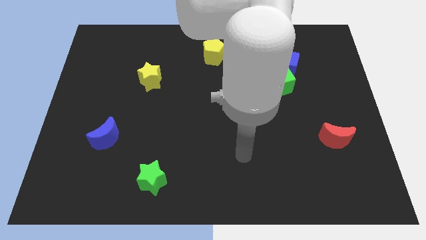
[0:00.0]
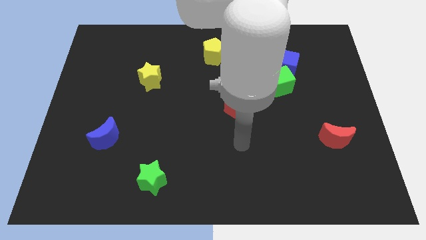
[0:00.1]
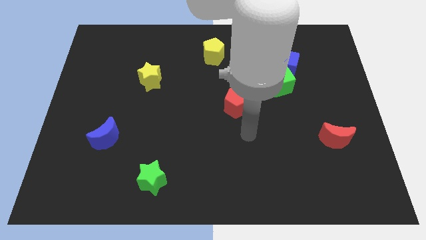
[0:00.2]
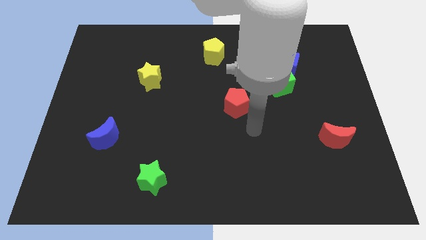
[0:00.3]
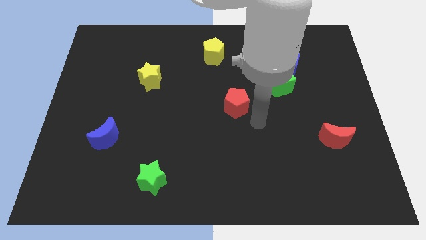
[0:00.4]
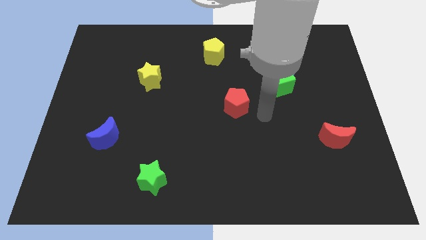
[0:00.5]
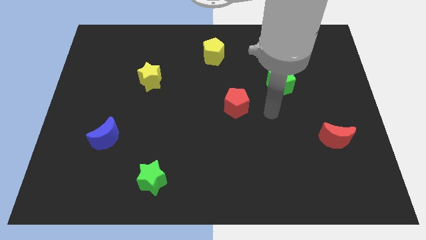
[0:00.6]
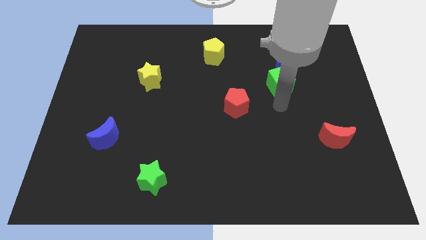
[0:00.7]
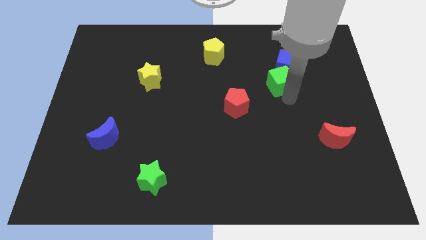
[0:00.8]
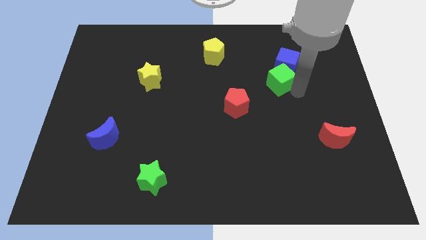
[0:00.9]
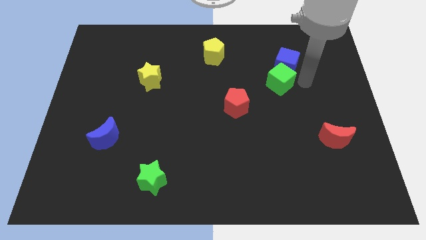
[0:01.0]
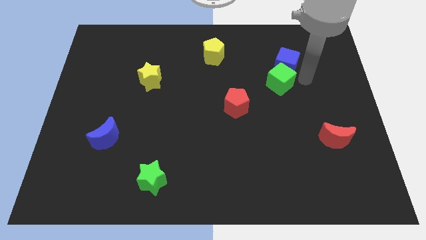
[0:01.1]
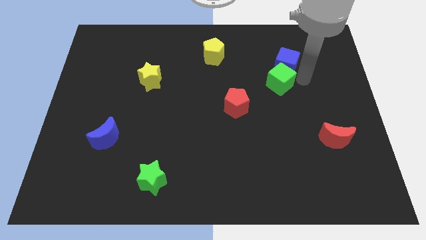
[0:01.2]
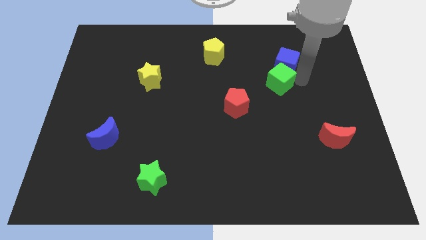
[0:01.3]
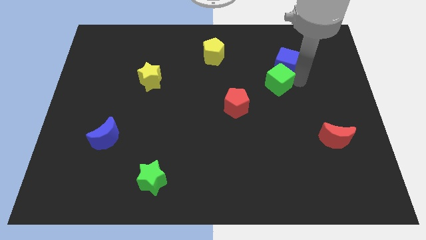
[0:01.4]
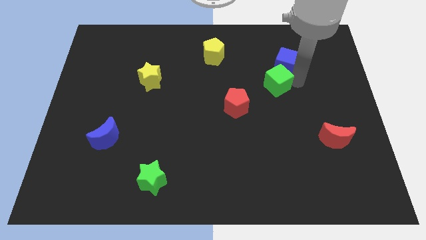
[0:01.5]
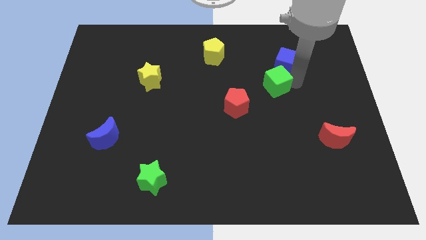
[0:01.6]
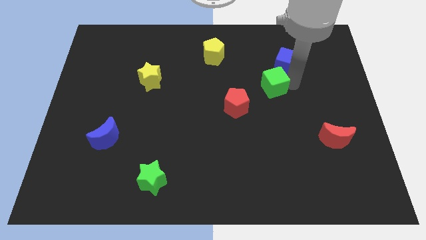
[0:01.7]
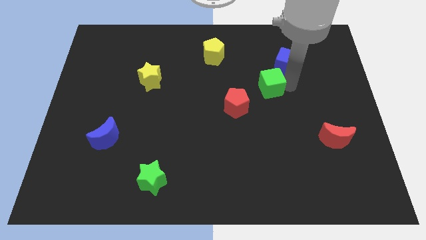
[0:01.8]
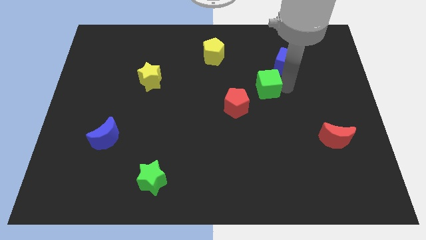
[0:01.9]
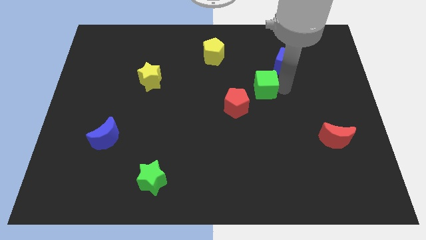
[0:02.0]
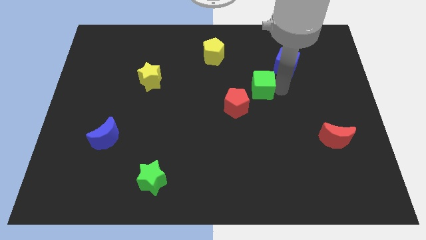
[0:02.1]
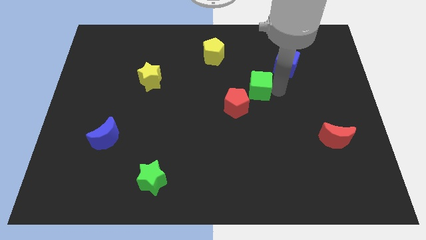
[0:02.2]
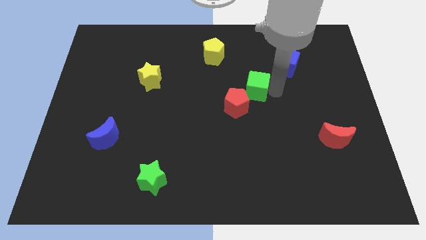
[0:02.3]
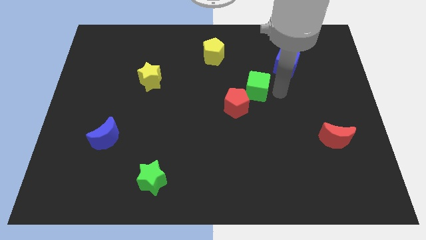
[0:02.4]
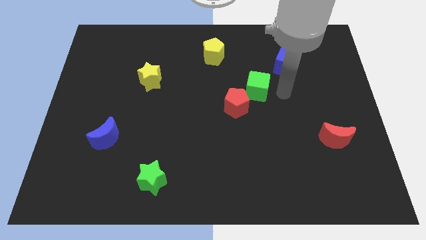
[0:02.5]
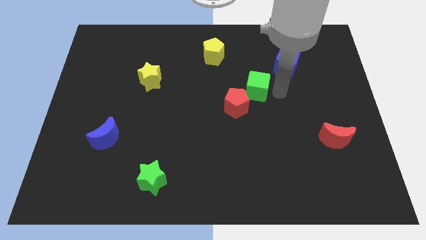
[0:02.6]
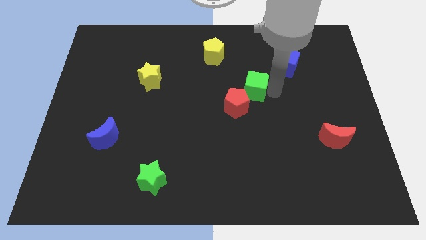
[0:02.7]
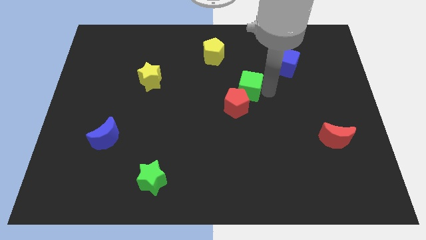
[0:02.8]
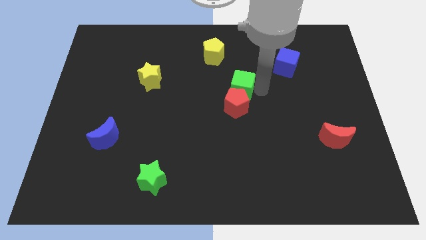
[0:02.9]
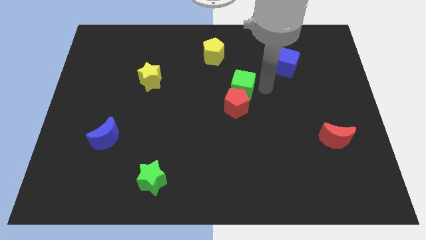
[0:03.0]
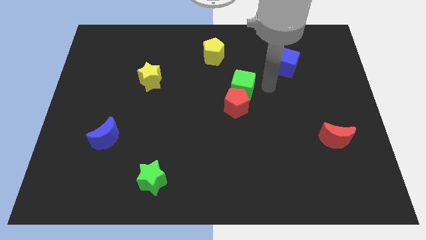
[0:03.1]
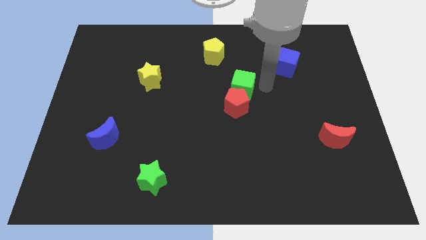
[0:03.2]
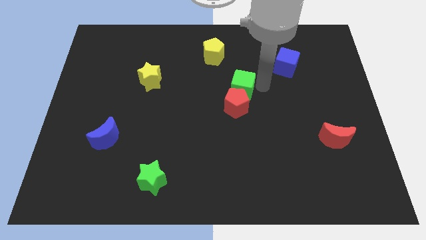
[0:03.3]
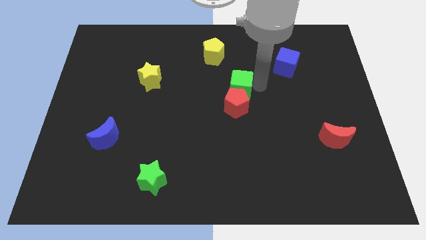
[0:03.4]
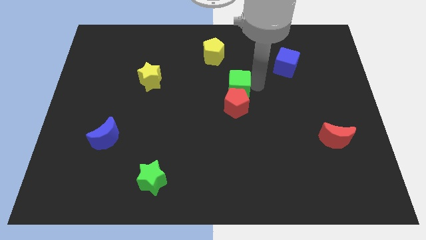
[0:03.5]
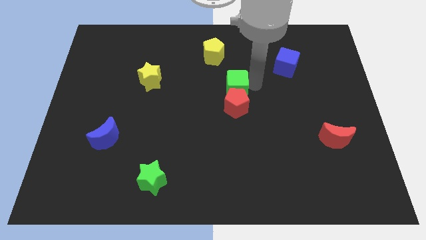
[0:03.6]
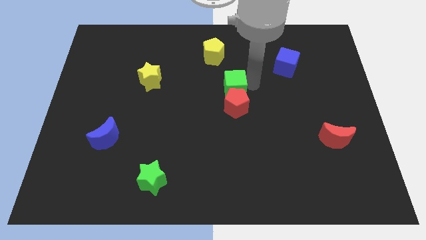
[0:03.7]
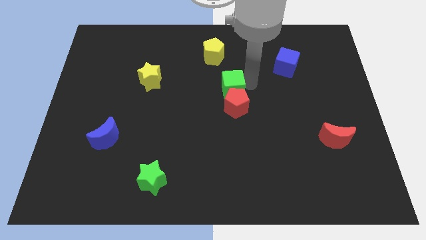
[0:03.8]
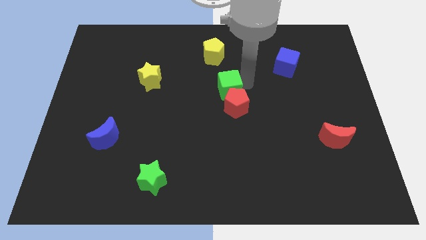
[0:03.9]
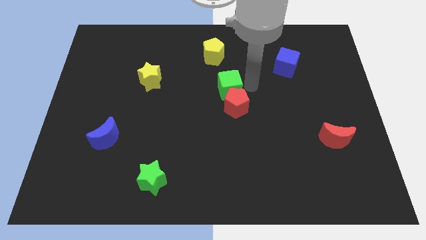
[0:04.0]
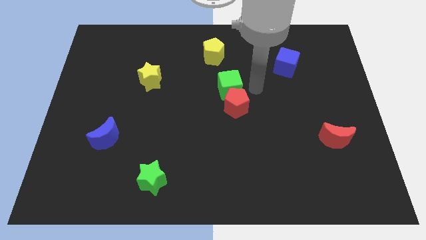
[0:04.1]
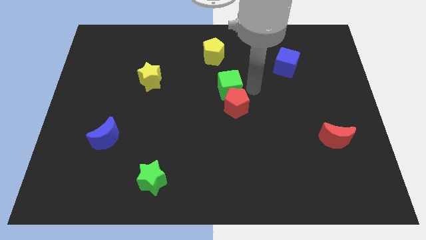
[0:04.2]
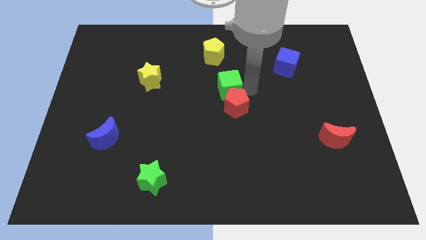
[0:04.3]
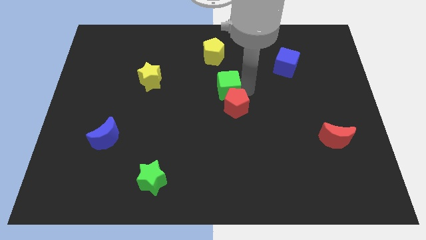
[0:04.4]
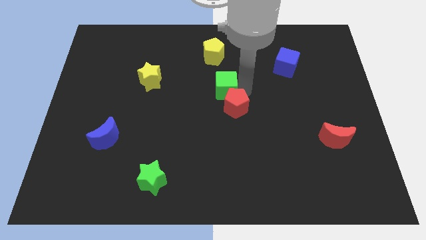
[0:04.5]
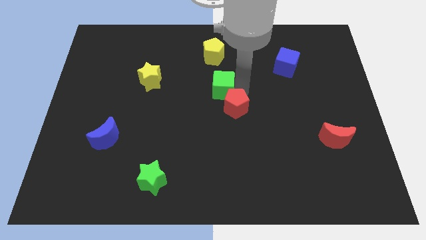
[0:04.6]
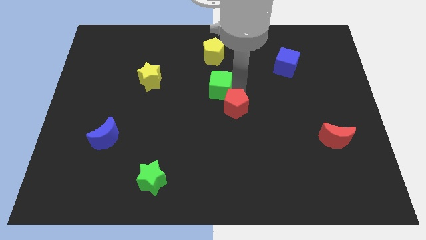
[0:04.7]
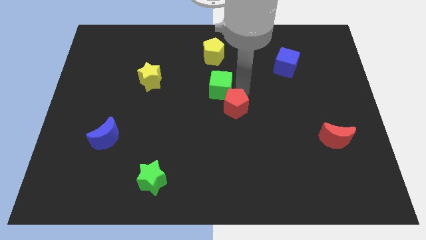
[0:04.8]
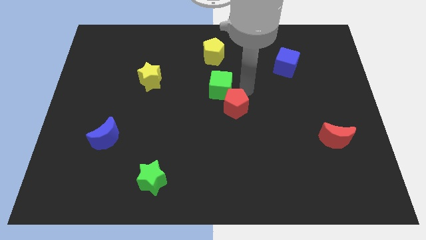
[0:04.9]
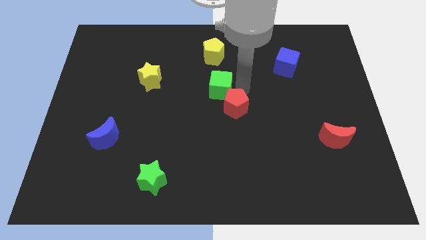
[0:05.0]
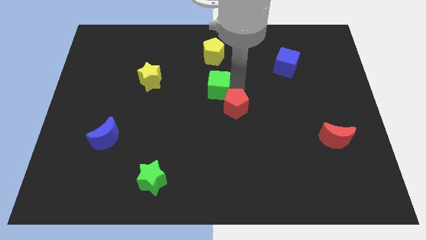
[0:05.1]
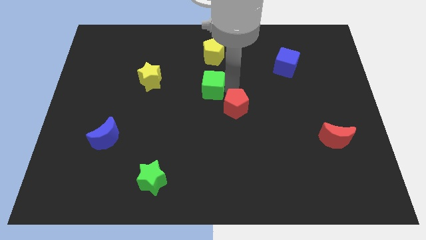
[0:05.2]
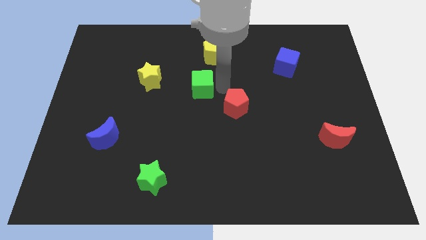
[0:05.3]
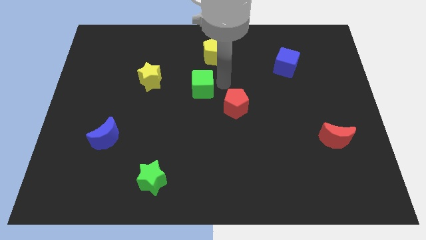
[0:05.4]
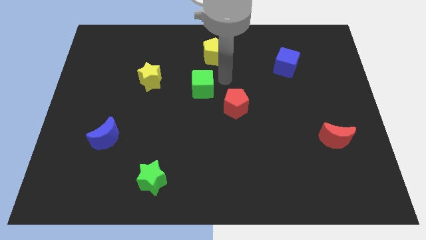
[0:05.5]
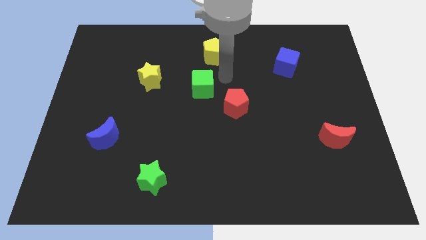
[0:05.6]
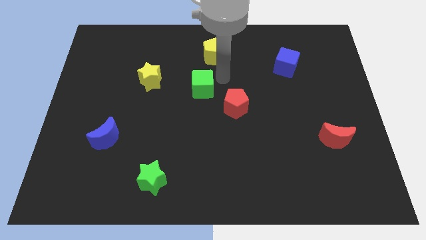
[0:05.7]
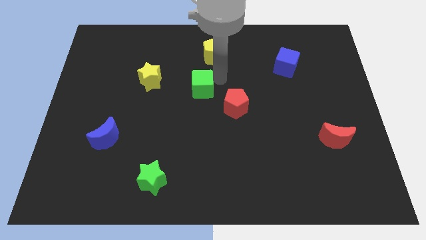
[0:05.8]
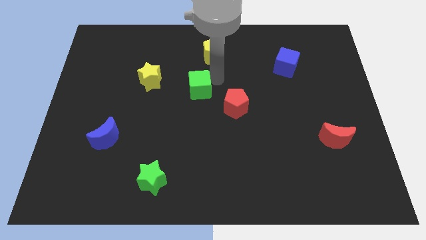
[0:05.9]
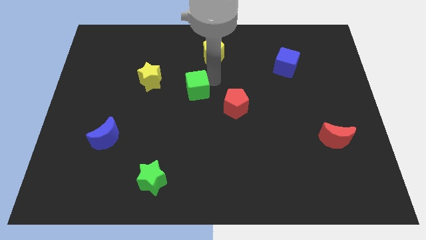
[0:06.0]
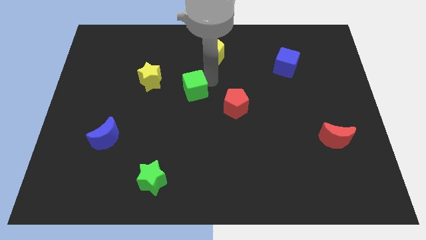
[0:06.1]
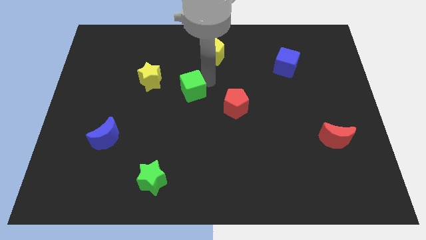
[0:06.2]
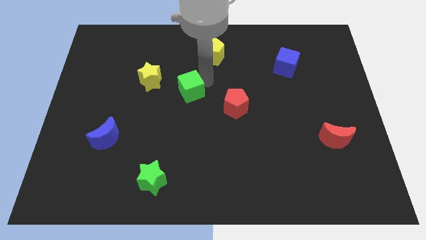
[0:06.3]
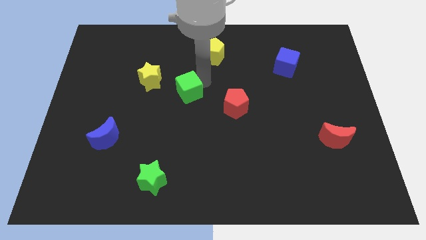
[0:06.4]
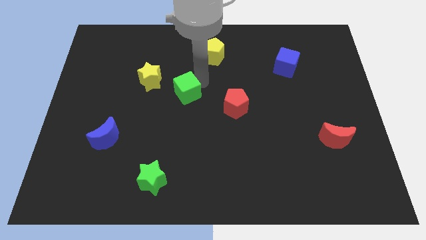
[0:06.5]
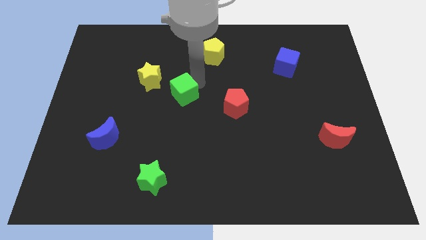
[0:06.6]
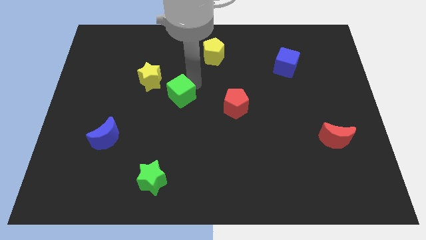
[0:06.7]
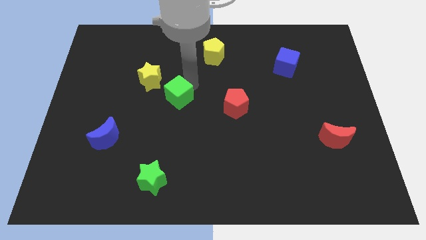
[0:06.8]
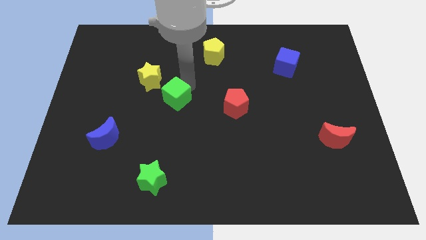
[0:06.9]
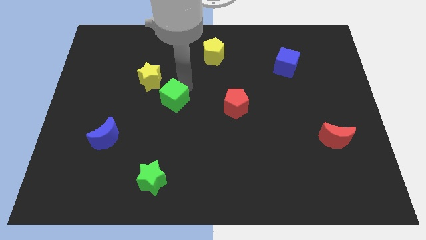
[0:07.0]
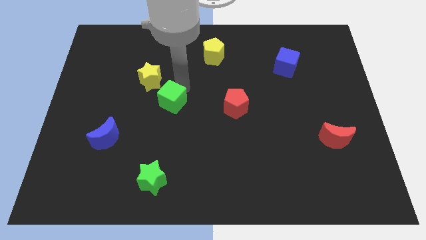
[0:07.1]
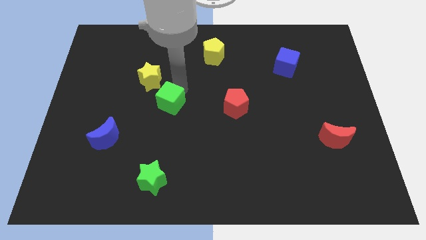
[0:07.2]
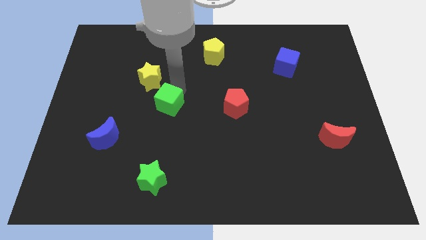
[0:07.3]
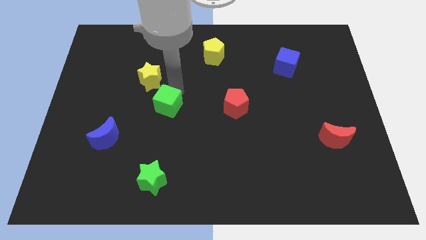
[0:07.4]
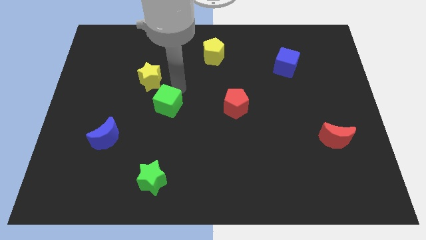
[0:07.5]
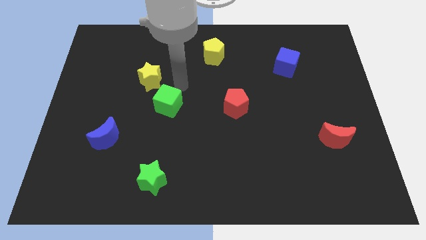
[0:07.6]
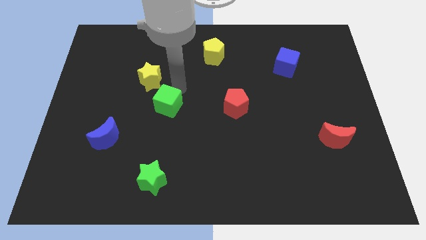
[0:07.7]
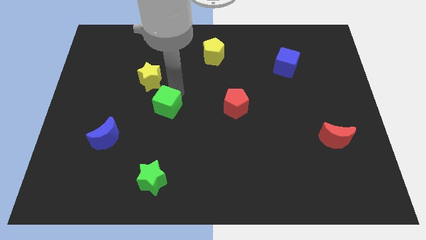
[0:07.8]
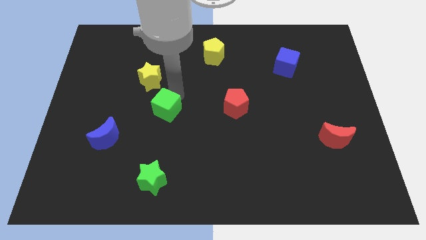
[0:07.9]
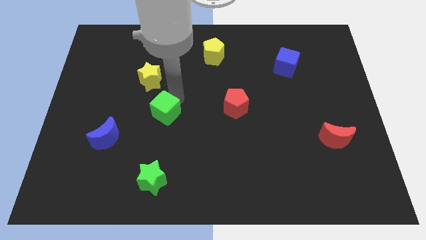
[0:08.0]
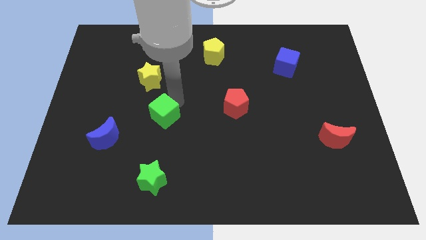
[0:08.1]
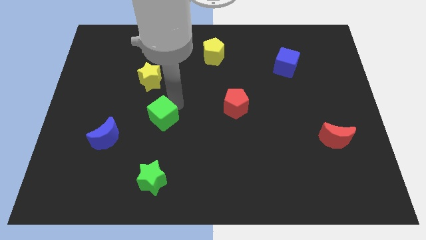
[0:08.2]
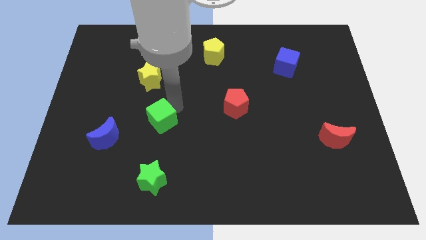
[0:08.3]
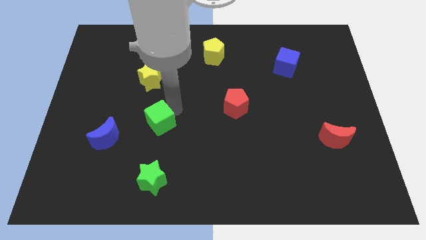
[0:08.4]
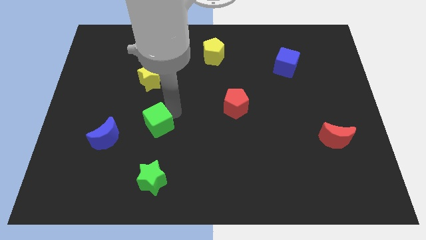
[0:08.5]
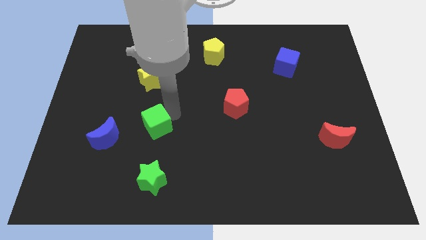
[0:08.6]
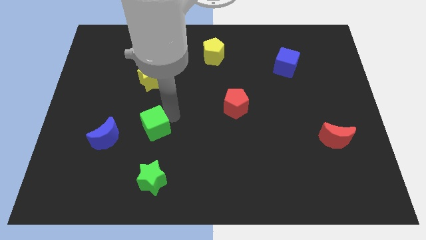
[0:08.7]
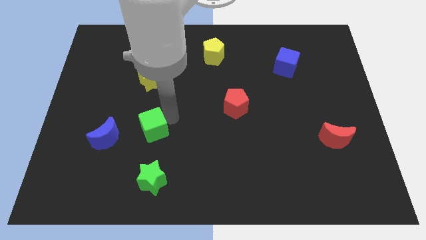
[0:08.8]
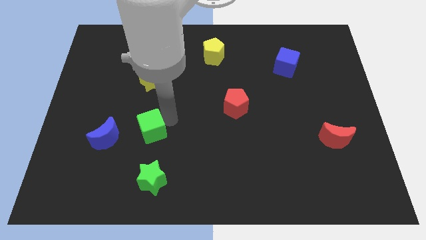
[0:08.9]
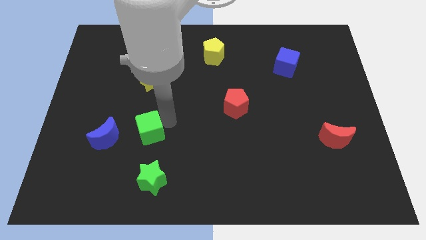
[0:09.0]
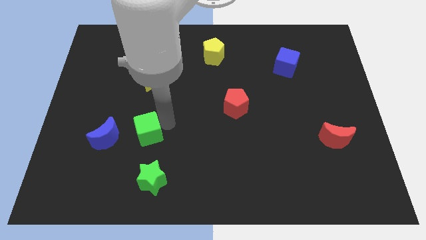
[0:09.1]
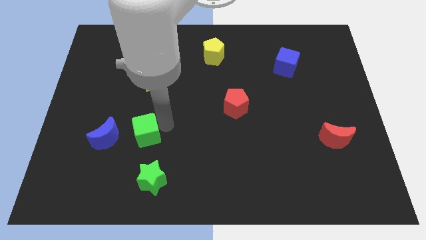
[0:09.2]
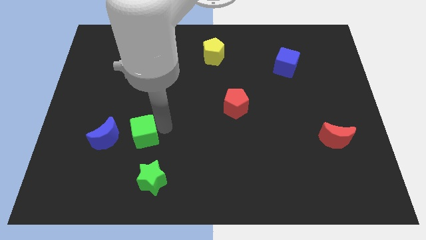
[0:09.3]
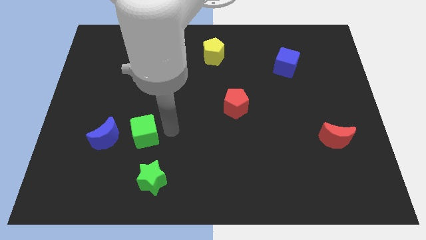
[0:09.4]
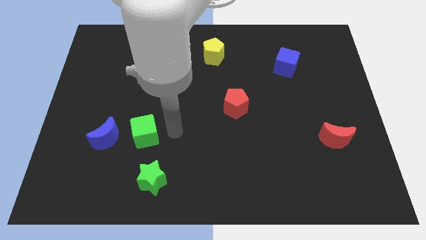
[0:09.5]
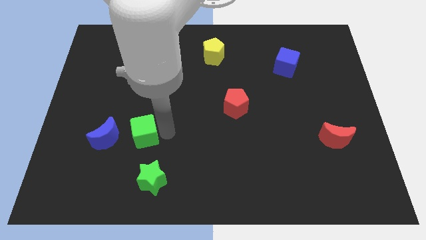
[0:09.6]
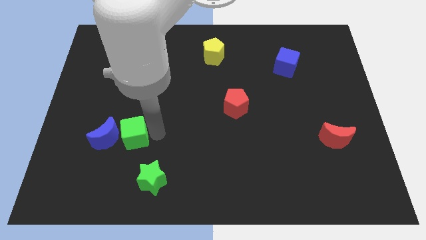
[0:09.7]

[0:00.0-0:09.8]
push the green cube towards the blue moon
